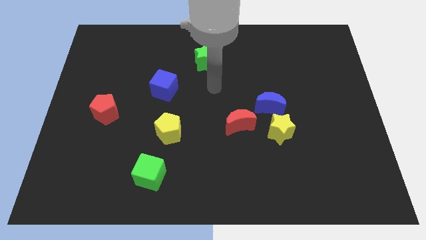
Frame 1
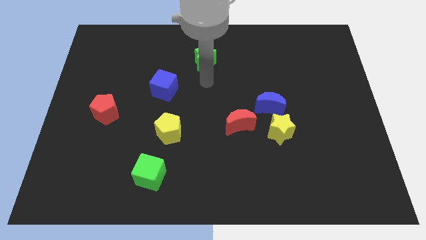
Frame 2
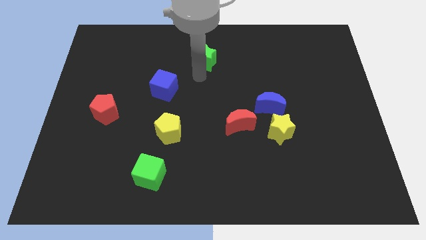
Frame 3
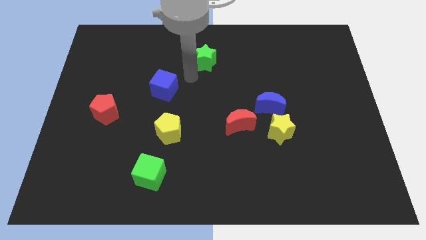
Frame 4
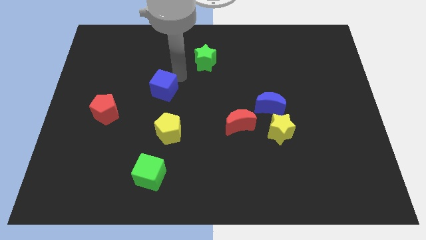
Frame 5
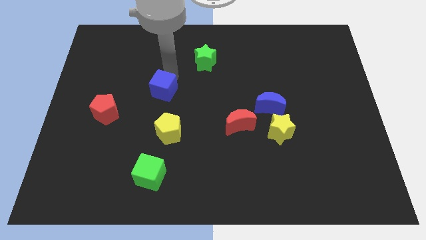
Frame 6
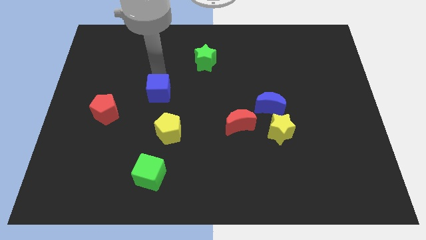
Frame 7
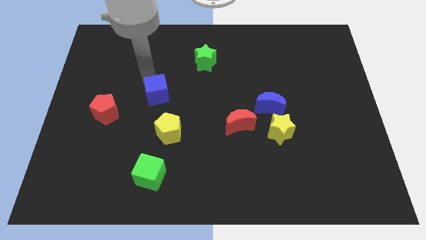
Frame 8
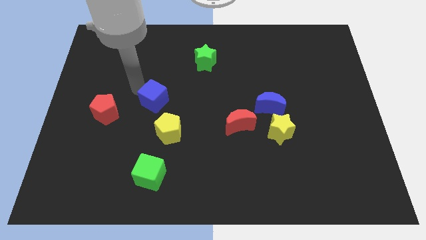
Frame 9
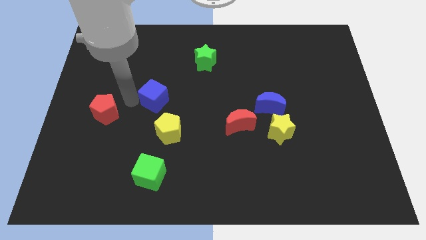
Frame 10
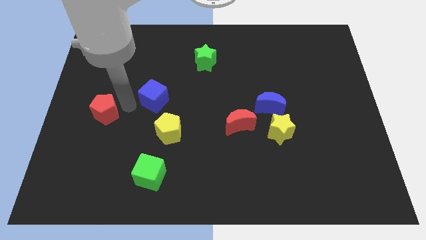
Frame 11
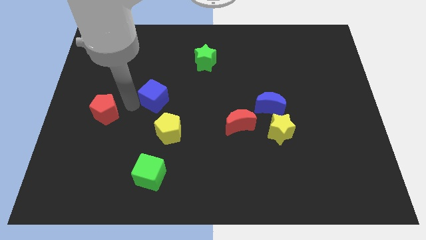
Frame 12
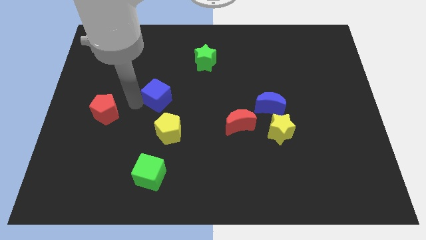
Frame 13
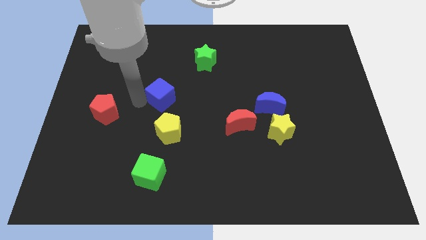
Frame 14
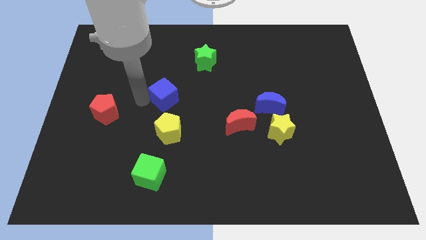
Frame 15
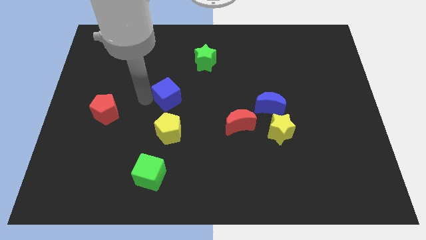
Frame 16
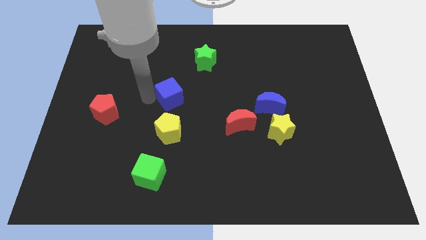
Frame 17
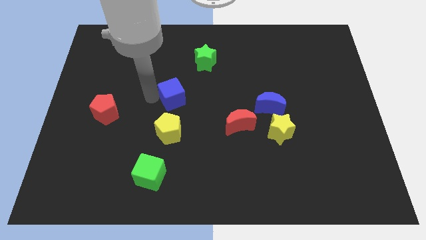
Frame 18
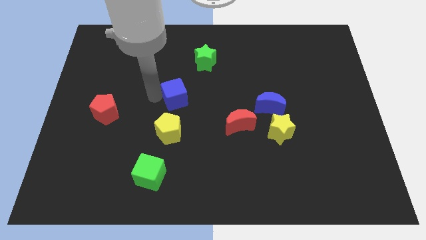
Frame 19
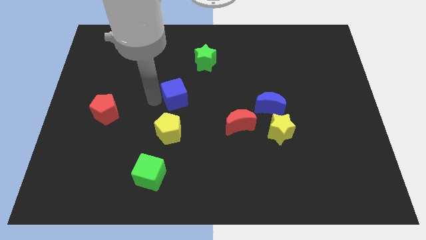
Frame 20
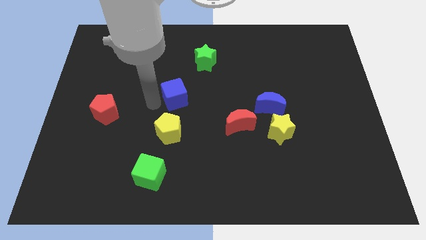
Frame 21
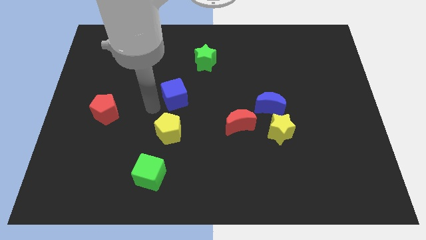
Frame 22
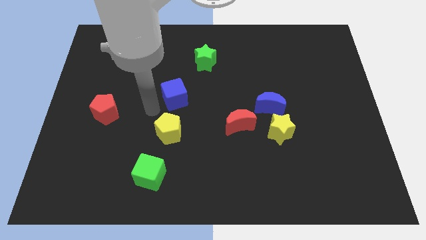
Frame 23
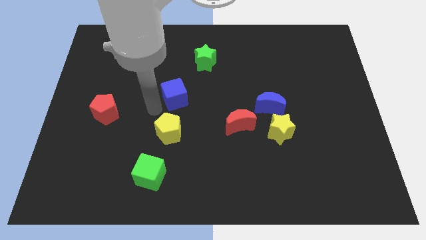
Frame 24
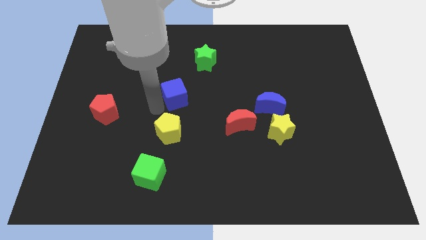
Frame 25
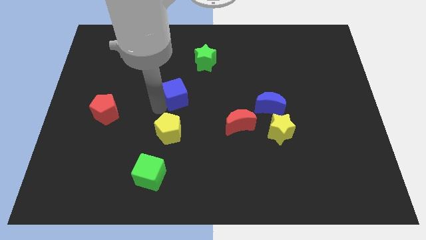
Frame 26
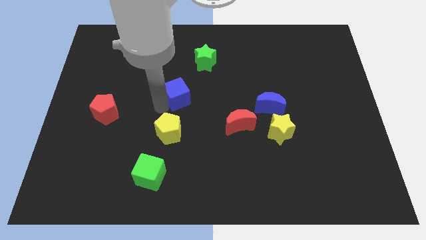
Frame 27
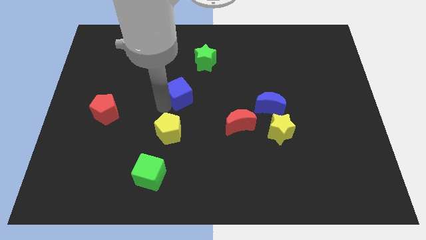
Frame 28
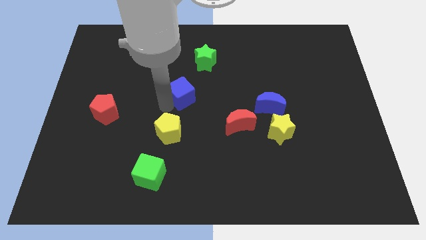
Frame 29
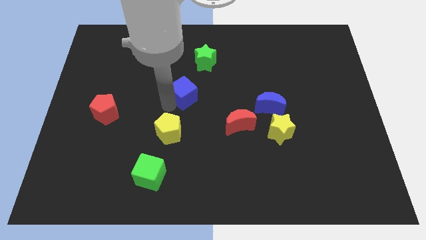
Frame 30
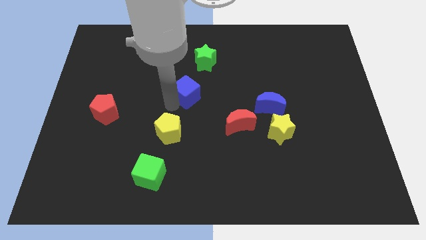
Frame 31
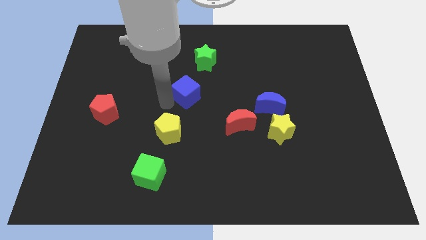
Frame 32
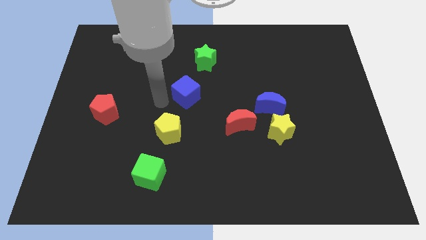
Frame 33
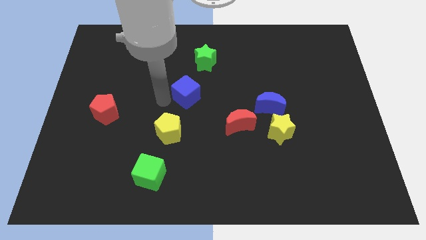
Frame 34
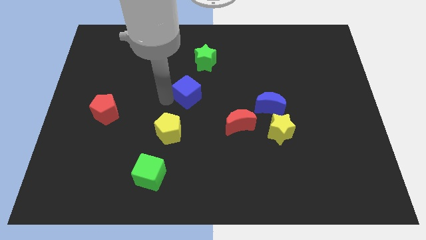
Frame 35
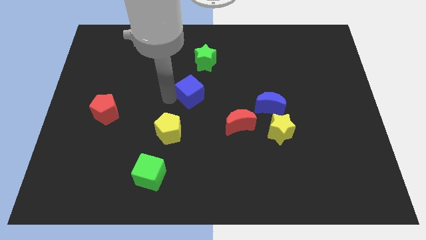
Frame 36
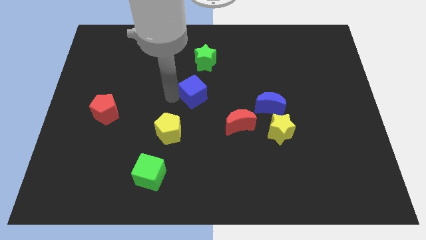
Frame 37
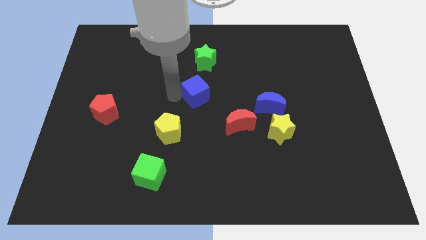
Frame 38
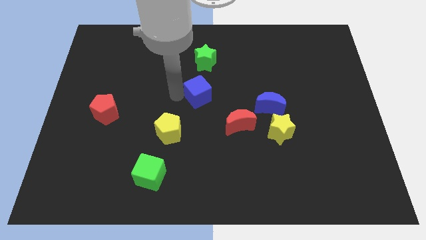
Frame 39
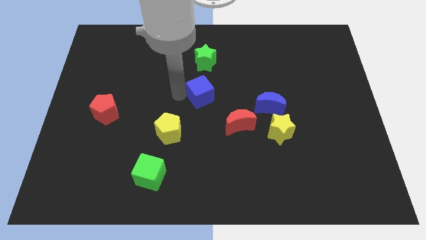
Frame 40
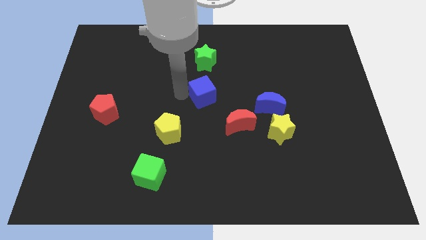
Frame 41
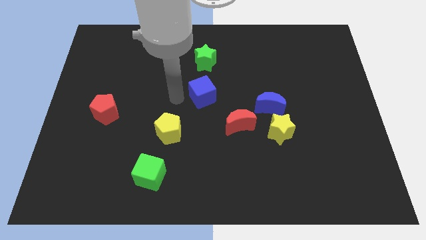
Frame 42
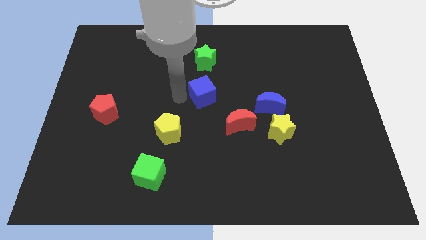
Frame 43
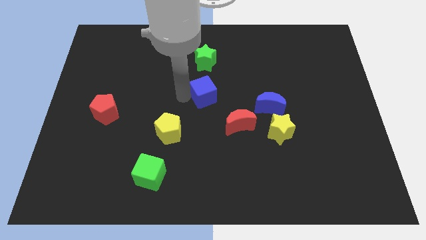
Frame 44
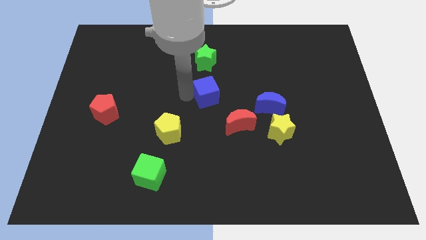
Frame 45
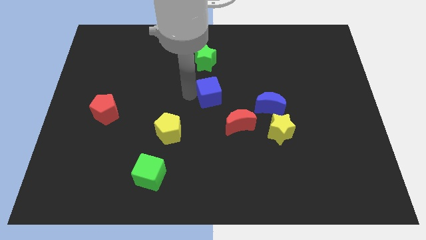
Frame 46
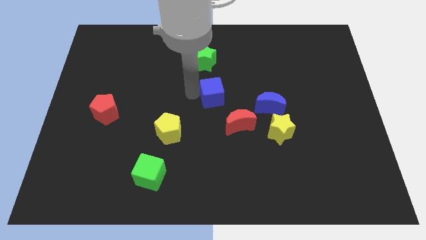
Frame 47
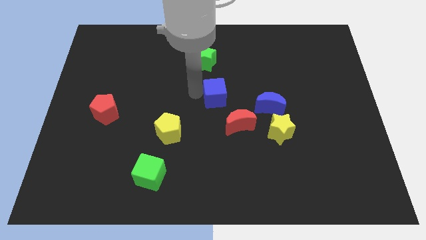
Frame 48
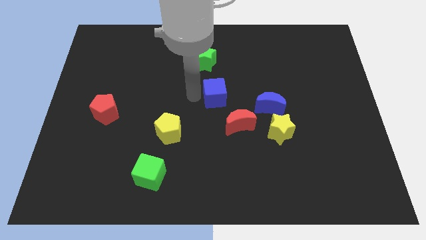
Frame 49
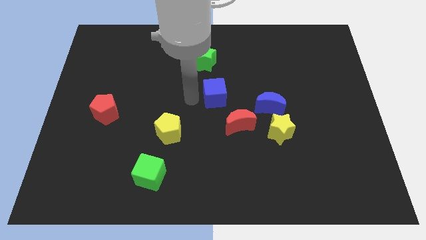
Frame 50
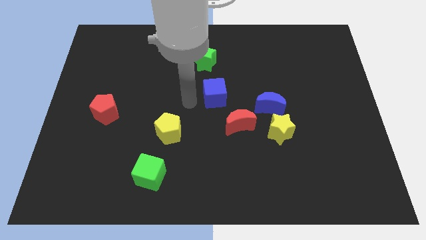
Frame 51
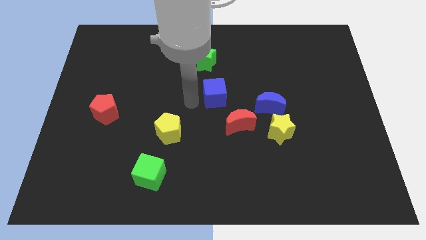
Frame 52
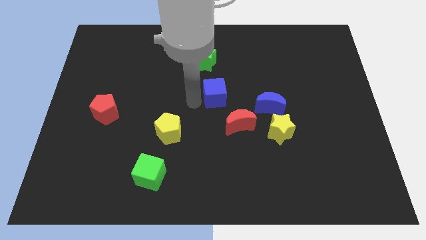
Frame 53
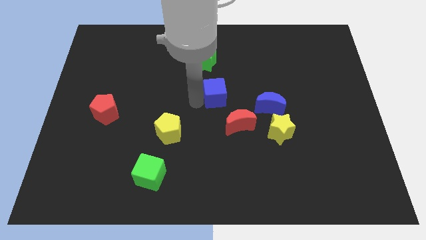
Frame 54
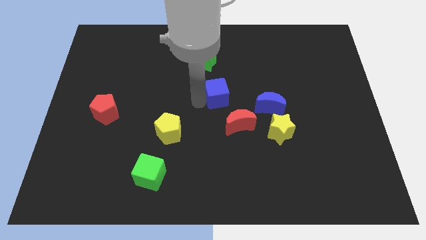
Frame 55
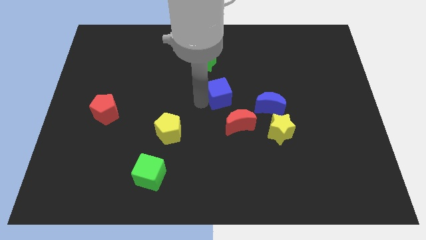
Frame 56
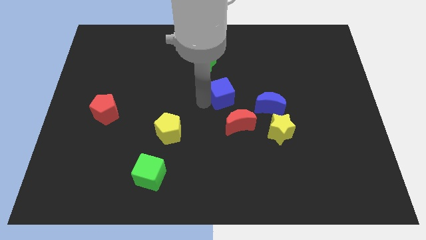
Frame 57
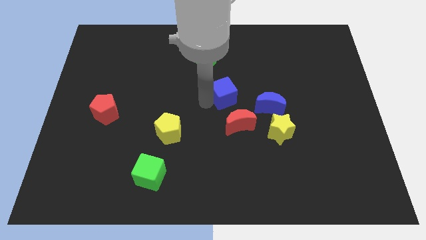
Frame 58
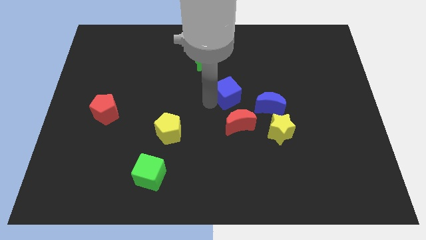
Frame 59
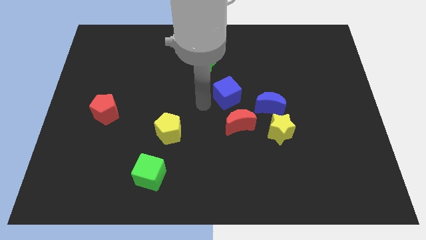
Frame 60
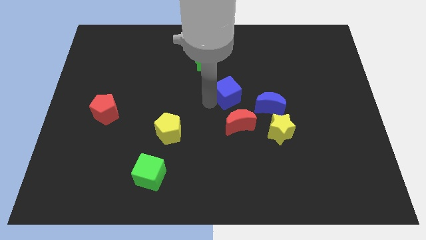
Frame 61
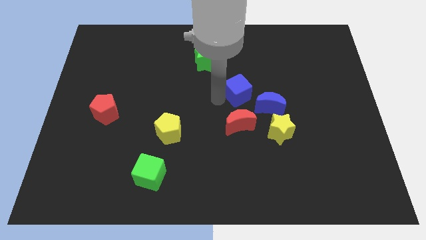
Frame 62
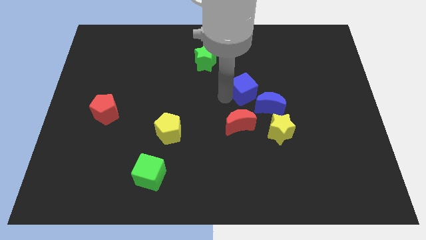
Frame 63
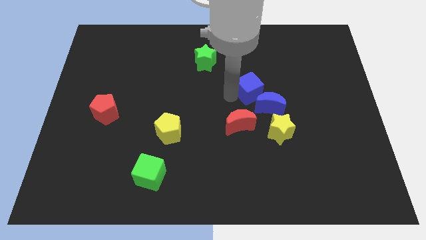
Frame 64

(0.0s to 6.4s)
slide the blue cube right

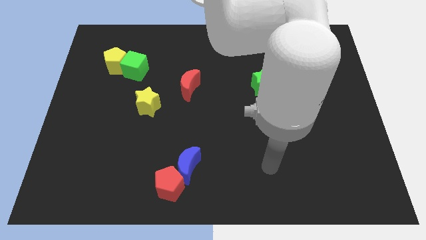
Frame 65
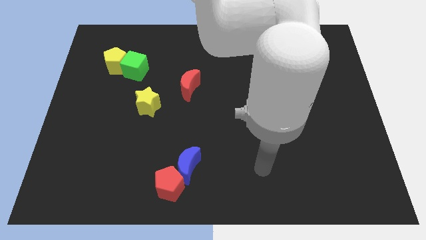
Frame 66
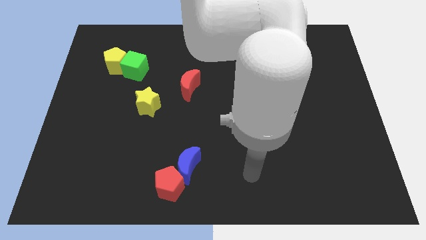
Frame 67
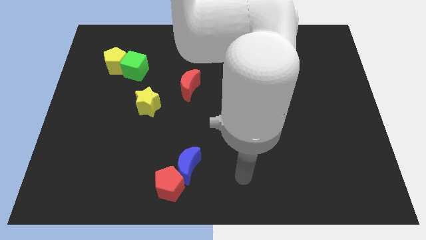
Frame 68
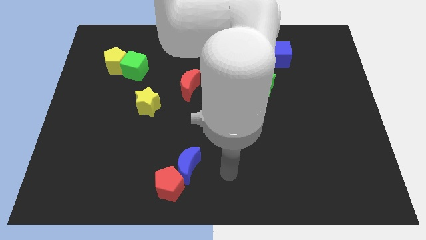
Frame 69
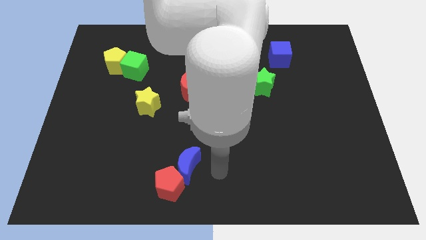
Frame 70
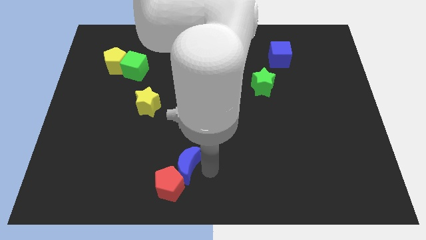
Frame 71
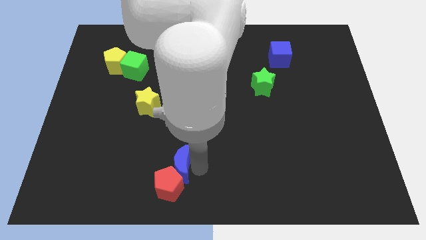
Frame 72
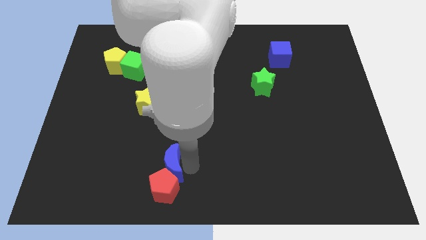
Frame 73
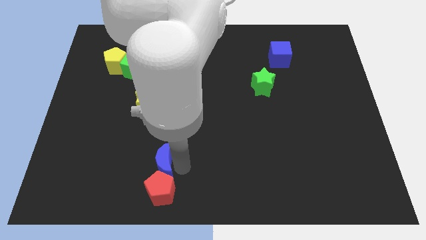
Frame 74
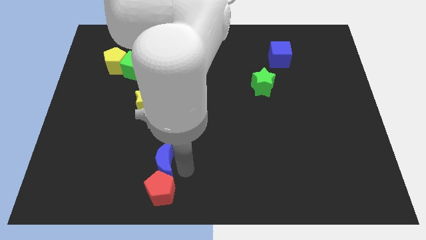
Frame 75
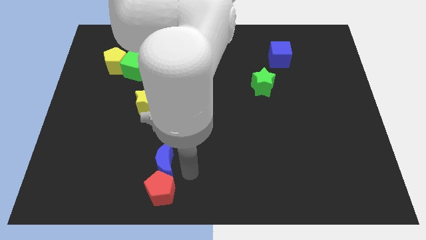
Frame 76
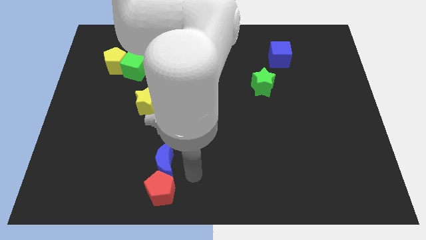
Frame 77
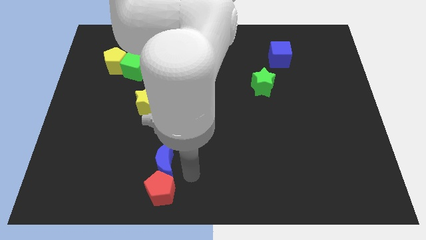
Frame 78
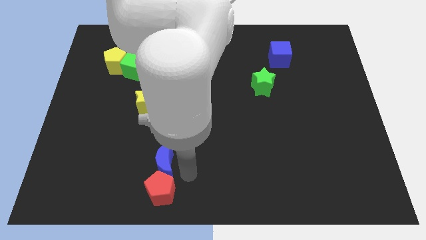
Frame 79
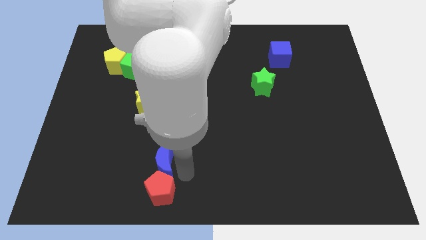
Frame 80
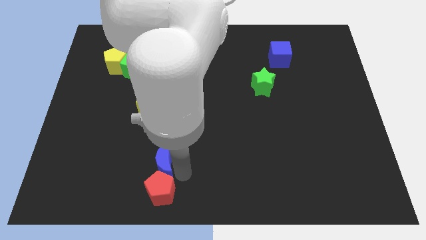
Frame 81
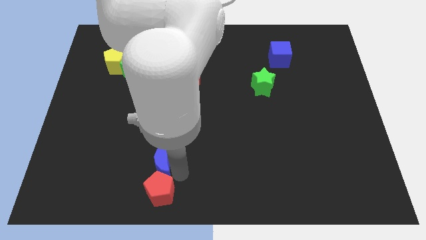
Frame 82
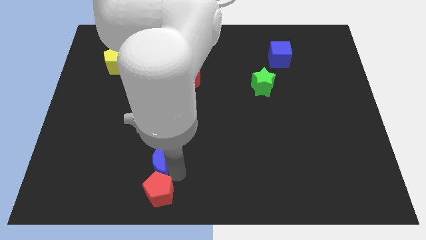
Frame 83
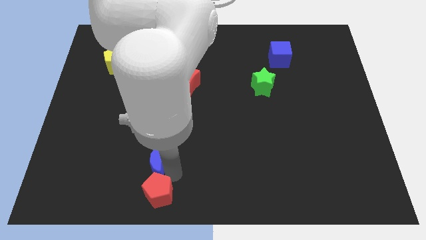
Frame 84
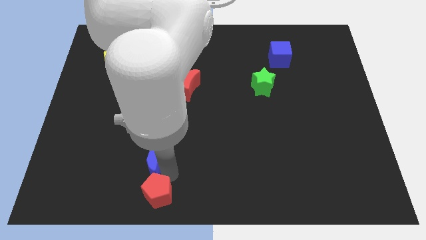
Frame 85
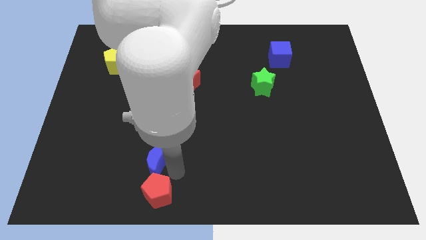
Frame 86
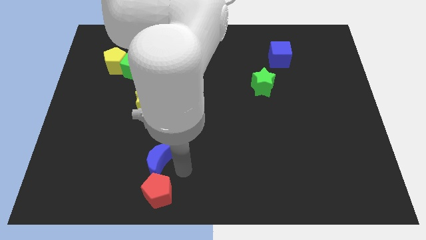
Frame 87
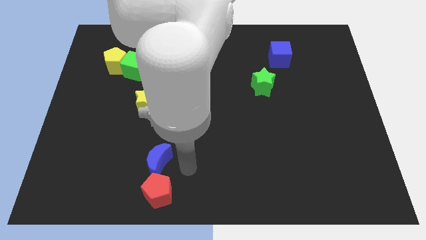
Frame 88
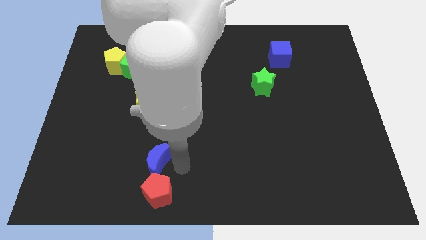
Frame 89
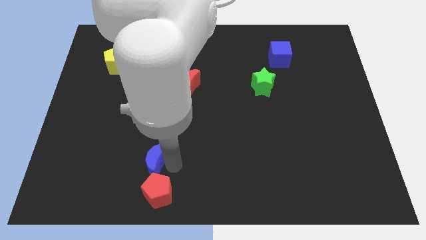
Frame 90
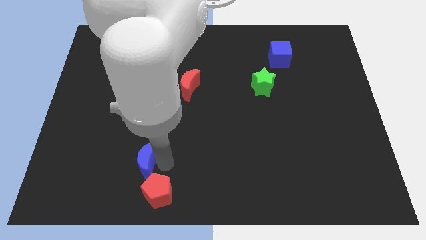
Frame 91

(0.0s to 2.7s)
slightly push the blue moon to the left
